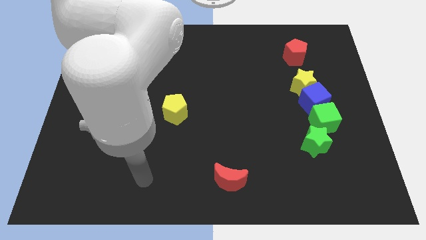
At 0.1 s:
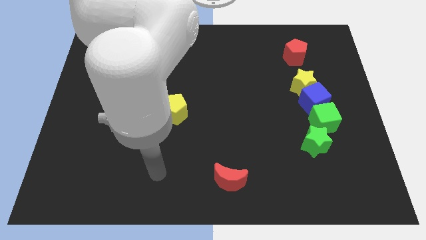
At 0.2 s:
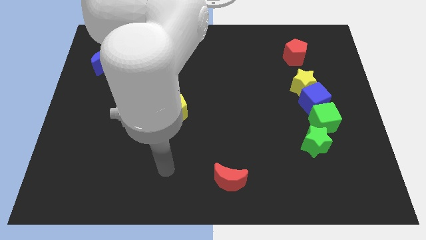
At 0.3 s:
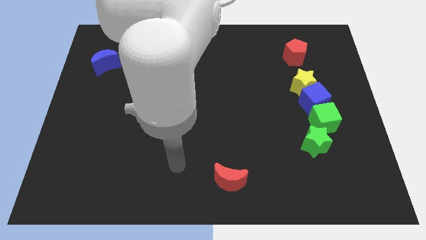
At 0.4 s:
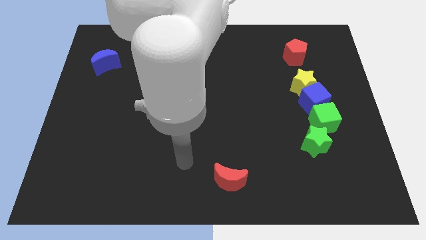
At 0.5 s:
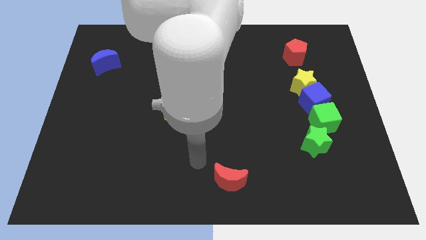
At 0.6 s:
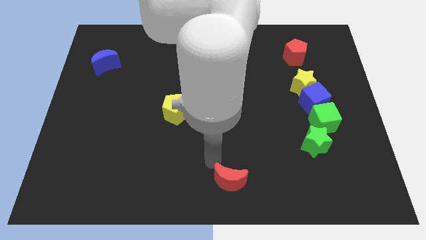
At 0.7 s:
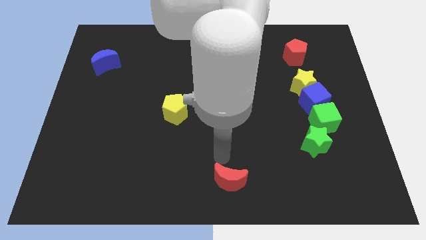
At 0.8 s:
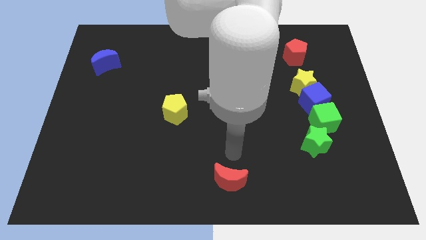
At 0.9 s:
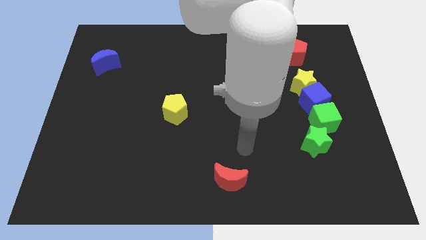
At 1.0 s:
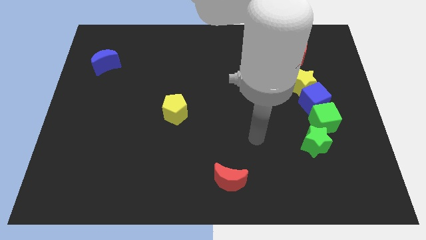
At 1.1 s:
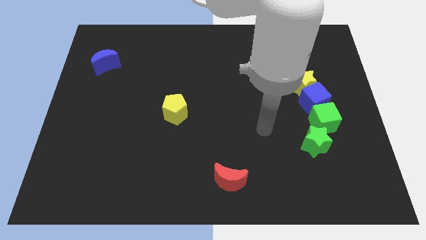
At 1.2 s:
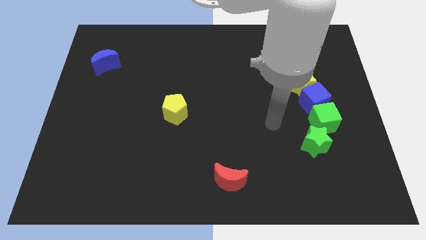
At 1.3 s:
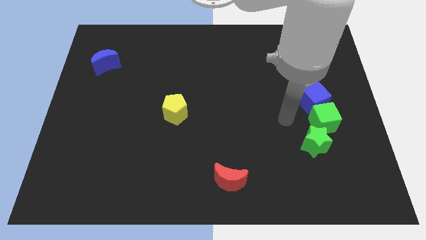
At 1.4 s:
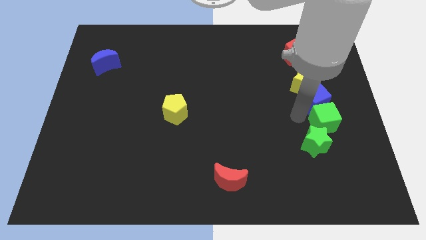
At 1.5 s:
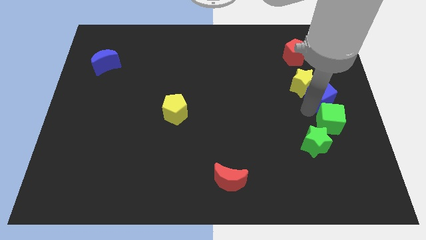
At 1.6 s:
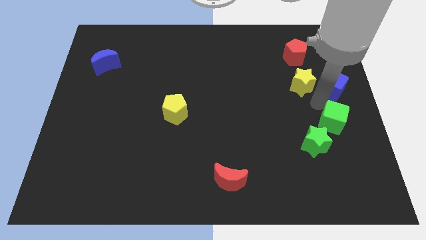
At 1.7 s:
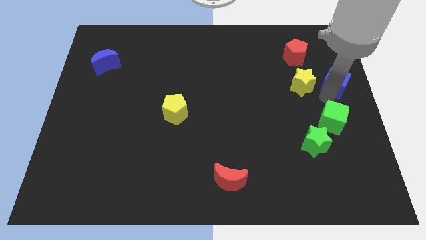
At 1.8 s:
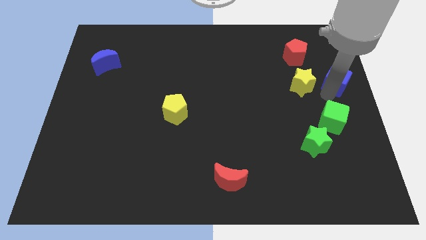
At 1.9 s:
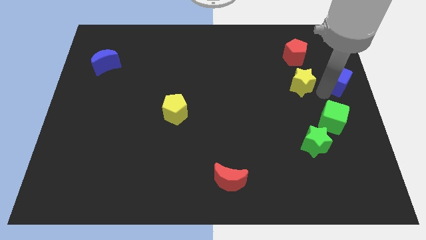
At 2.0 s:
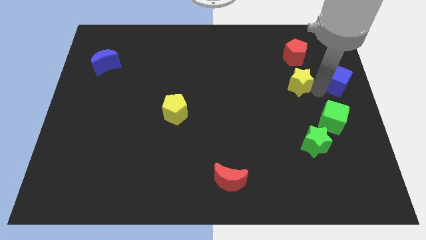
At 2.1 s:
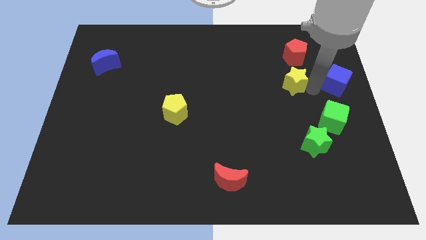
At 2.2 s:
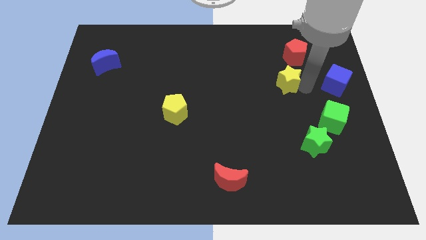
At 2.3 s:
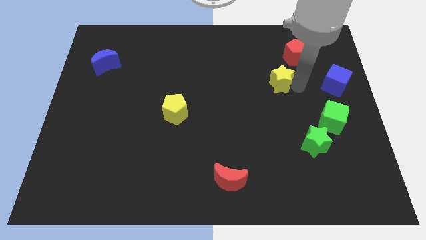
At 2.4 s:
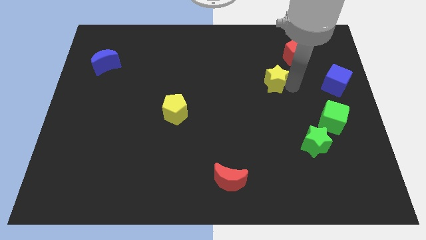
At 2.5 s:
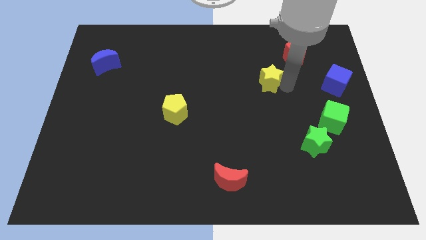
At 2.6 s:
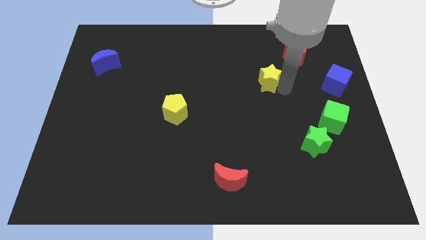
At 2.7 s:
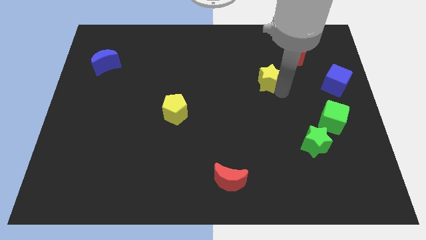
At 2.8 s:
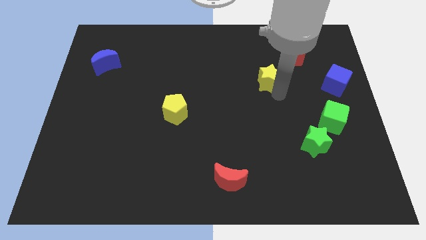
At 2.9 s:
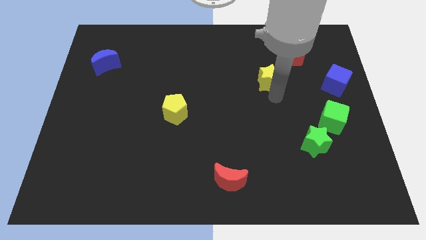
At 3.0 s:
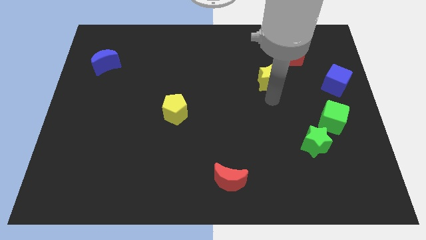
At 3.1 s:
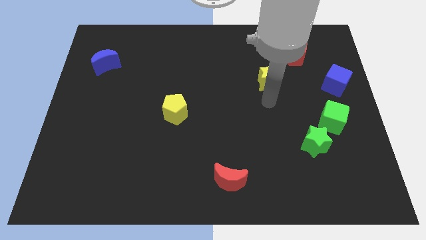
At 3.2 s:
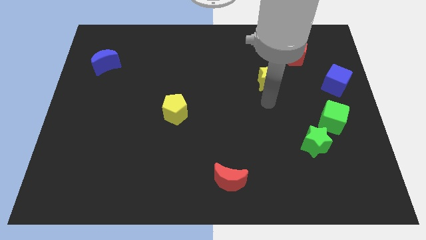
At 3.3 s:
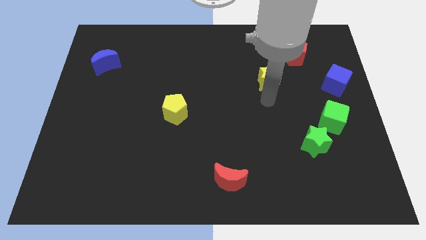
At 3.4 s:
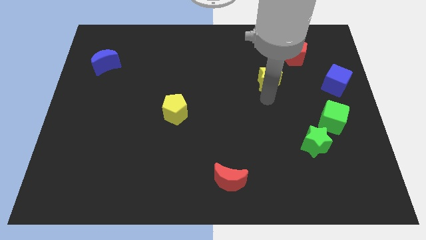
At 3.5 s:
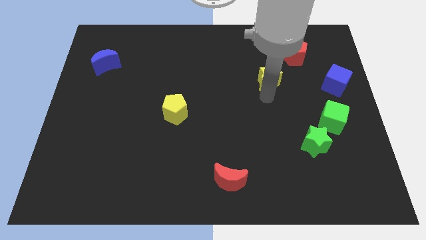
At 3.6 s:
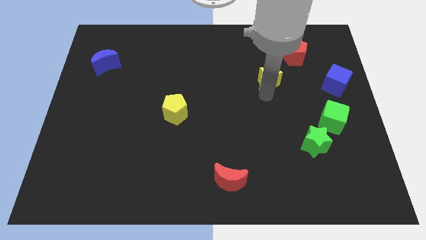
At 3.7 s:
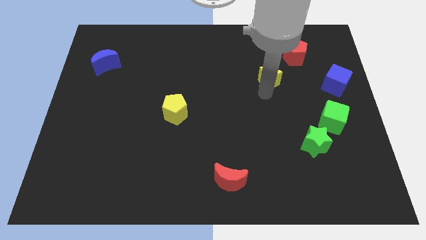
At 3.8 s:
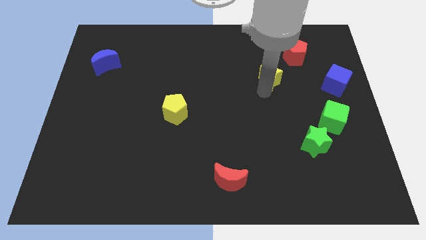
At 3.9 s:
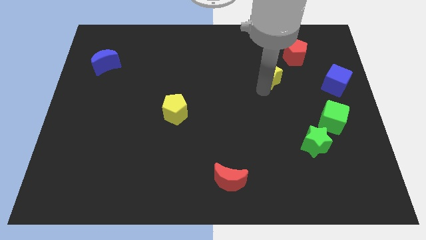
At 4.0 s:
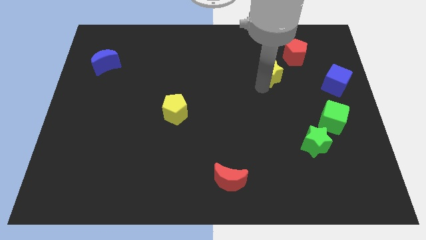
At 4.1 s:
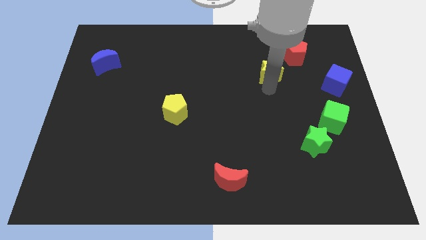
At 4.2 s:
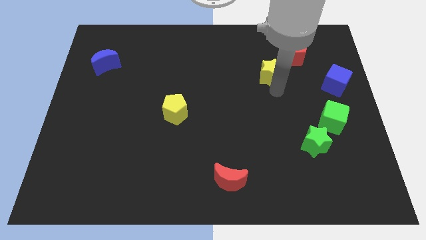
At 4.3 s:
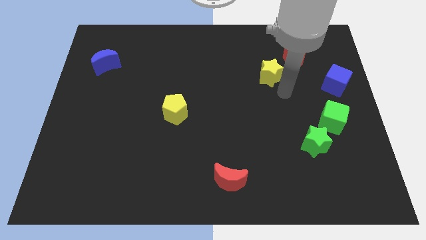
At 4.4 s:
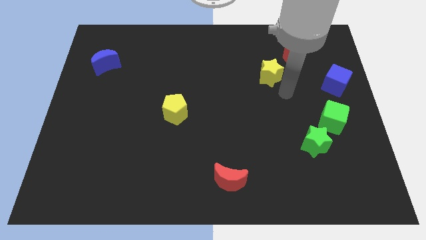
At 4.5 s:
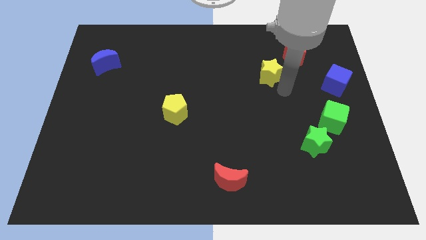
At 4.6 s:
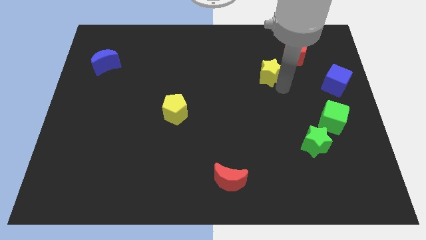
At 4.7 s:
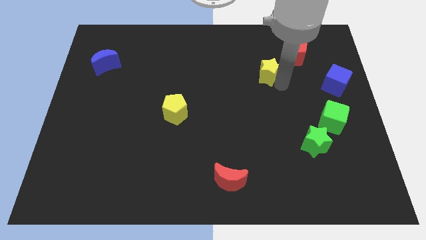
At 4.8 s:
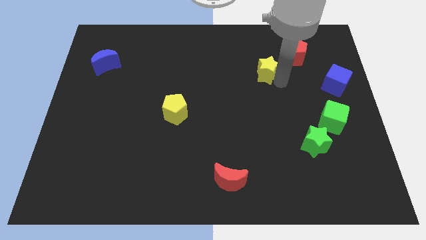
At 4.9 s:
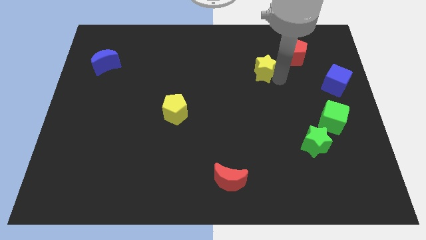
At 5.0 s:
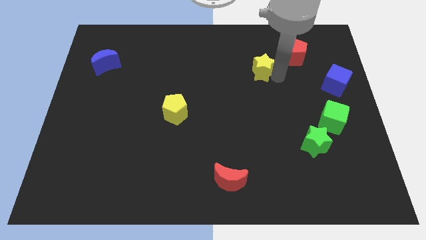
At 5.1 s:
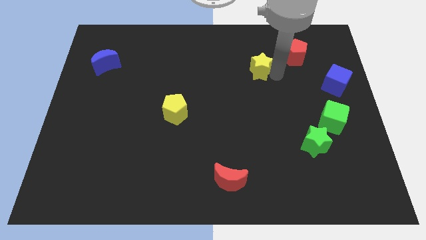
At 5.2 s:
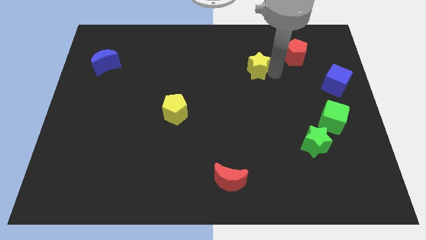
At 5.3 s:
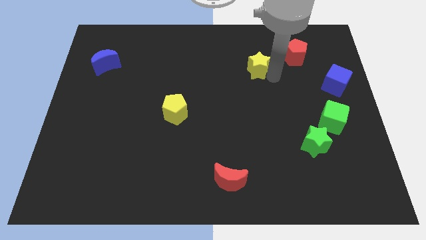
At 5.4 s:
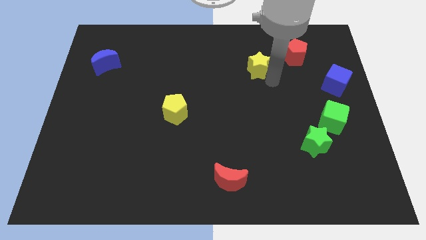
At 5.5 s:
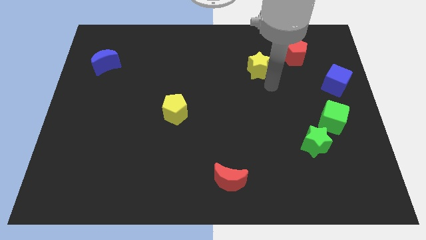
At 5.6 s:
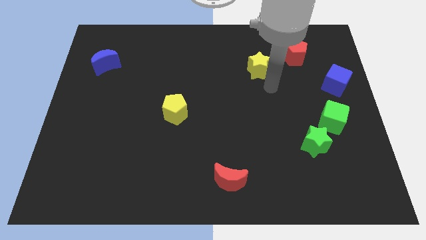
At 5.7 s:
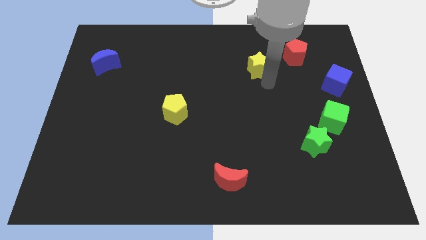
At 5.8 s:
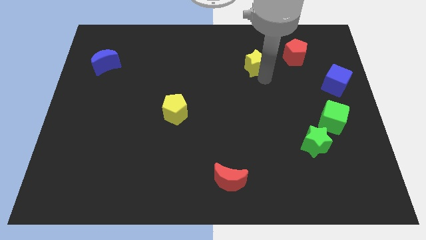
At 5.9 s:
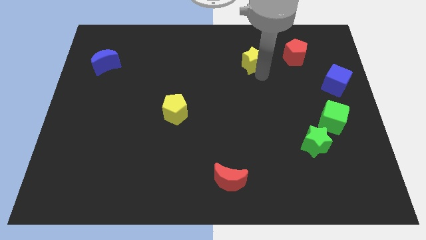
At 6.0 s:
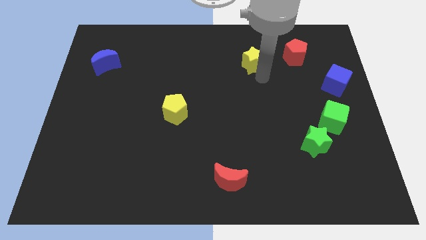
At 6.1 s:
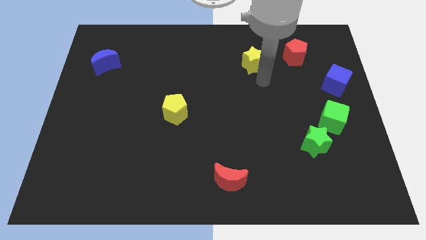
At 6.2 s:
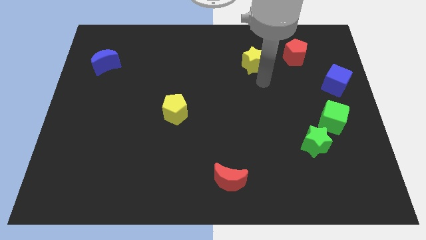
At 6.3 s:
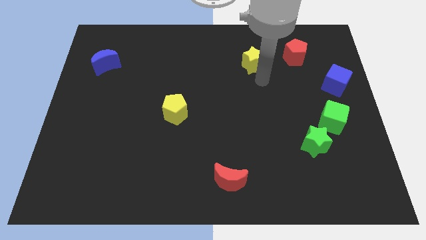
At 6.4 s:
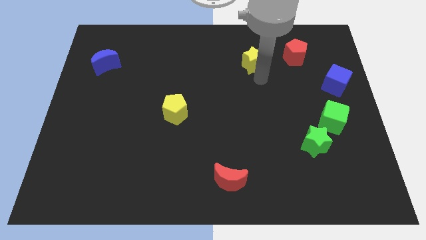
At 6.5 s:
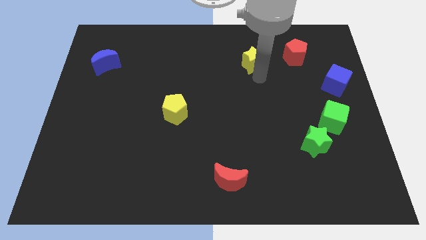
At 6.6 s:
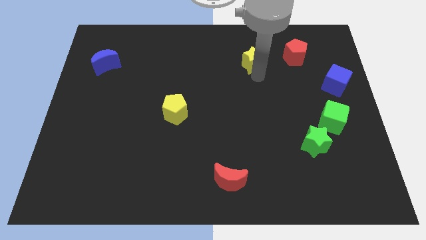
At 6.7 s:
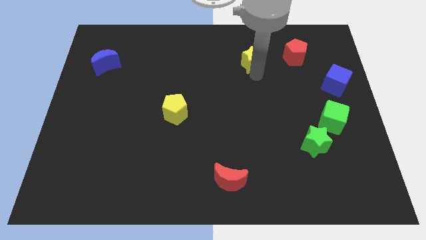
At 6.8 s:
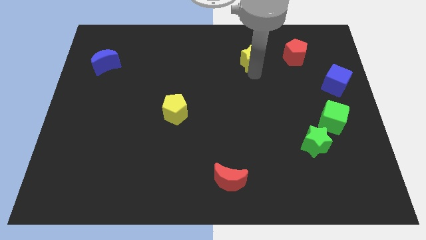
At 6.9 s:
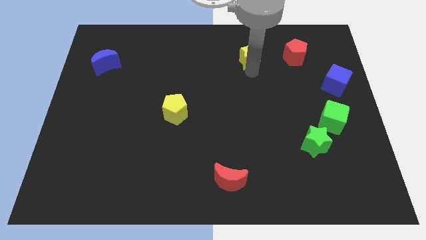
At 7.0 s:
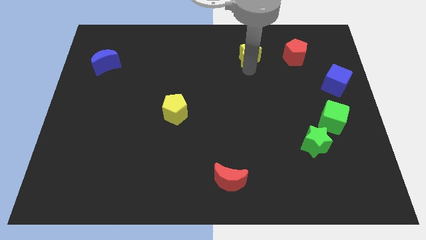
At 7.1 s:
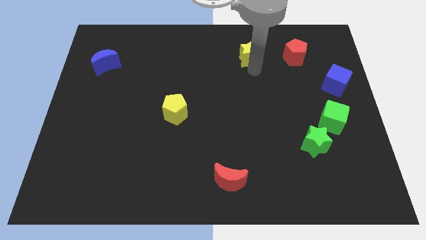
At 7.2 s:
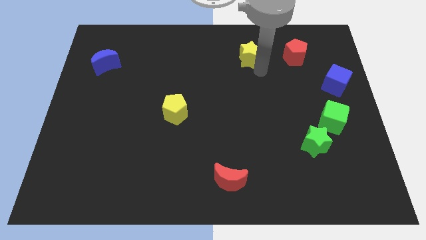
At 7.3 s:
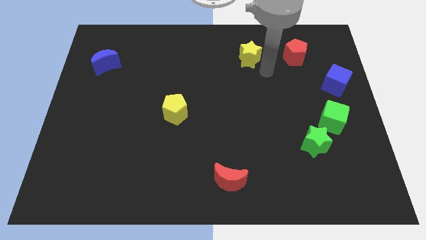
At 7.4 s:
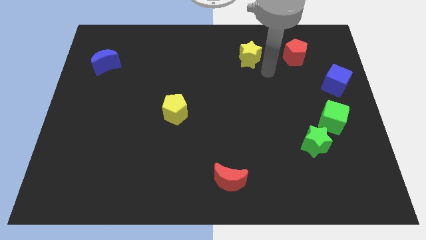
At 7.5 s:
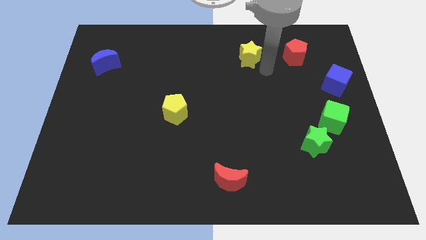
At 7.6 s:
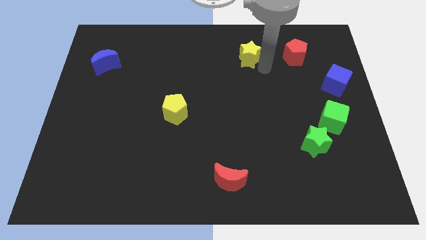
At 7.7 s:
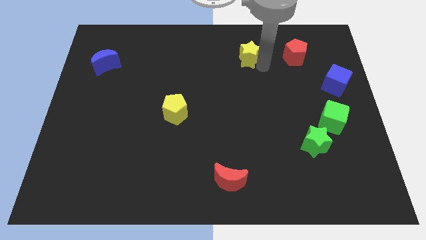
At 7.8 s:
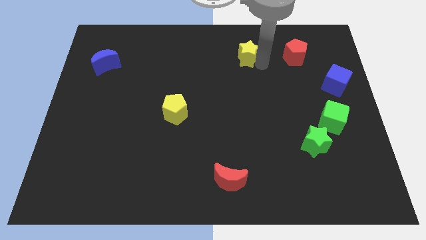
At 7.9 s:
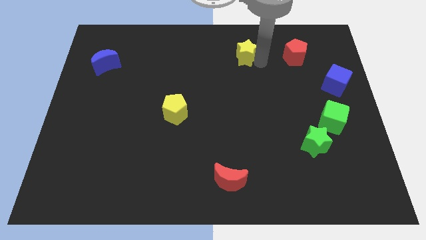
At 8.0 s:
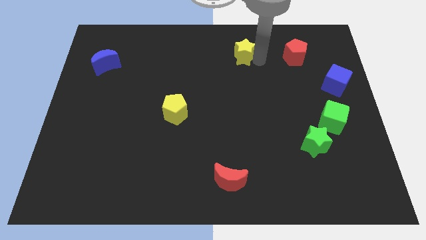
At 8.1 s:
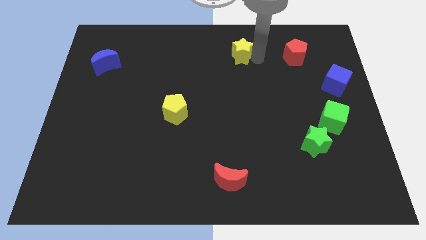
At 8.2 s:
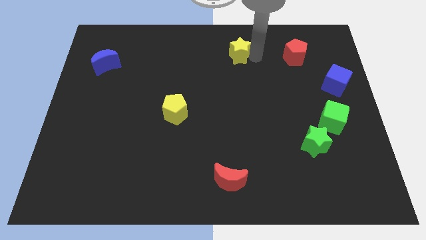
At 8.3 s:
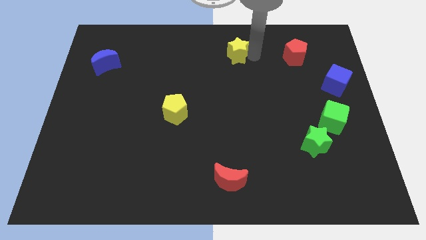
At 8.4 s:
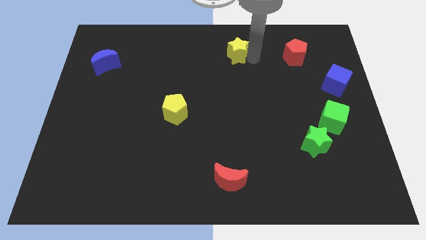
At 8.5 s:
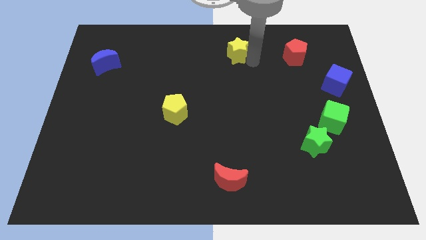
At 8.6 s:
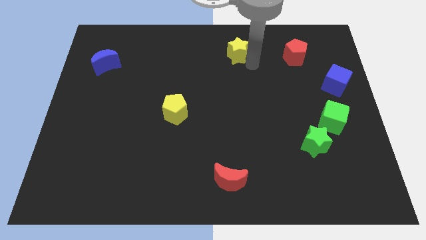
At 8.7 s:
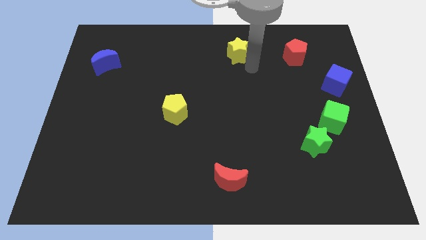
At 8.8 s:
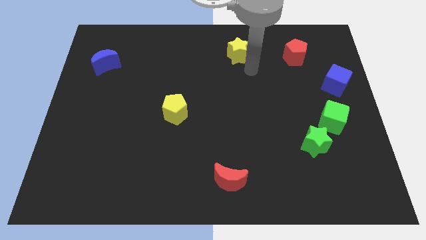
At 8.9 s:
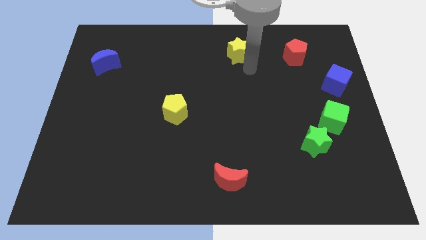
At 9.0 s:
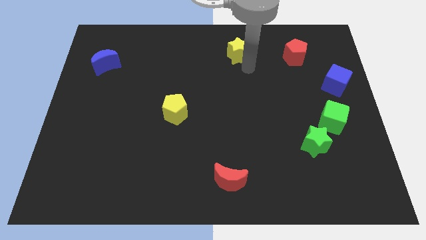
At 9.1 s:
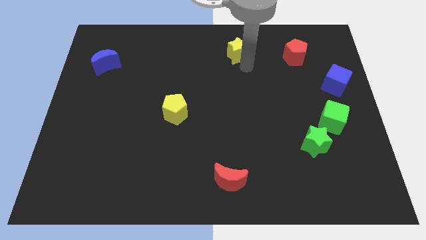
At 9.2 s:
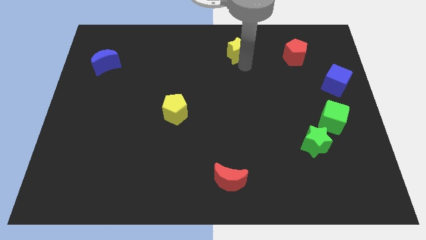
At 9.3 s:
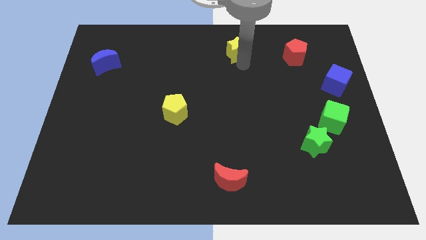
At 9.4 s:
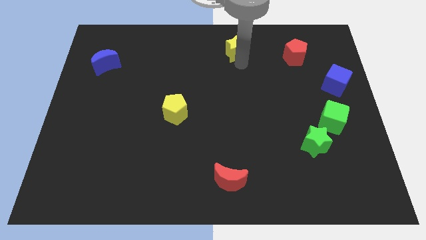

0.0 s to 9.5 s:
move the yellow star to the towards your base
